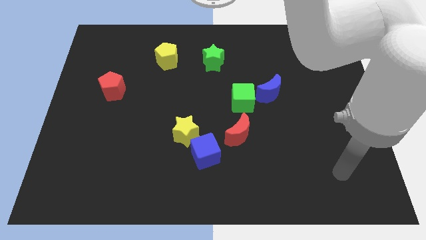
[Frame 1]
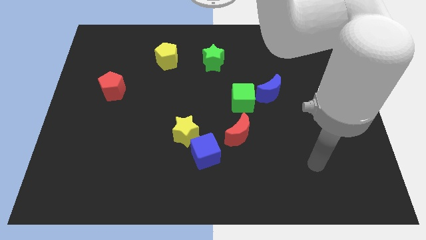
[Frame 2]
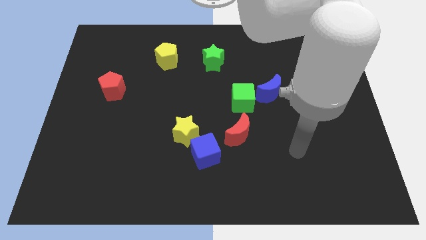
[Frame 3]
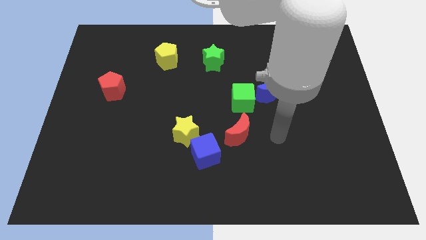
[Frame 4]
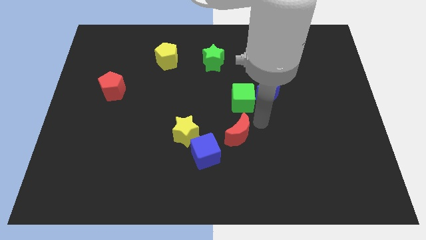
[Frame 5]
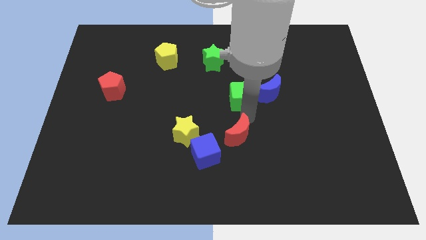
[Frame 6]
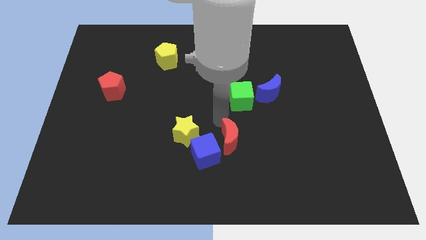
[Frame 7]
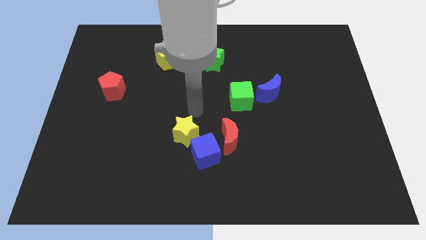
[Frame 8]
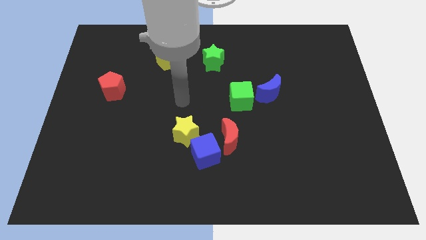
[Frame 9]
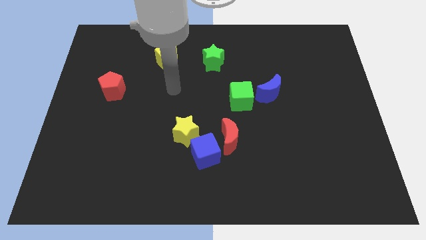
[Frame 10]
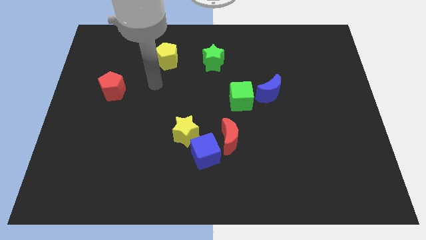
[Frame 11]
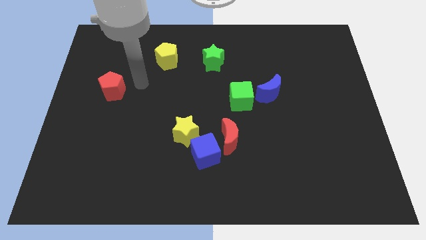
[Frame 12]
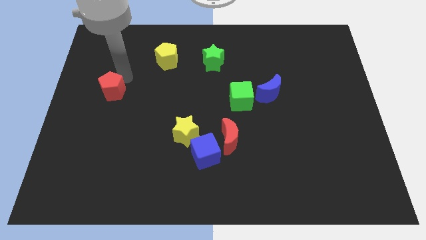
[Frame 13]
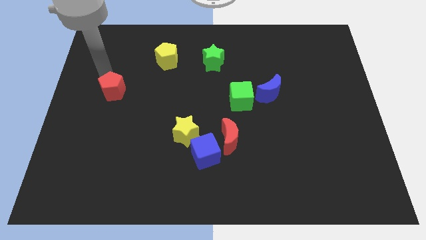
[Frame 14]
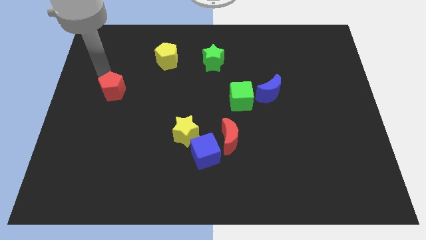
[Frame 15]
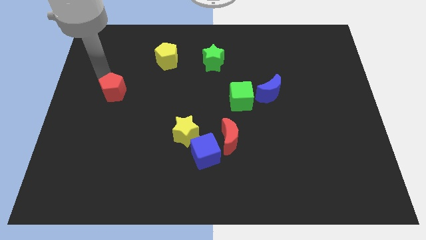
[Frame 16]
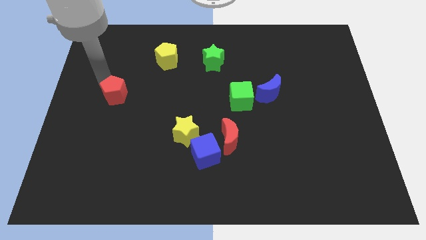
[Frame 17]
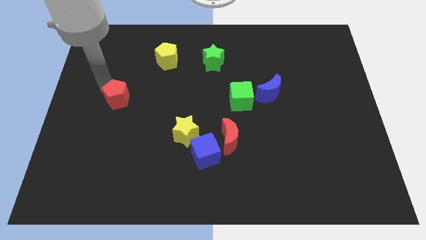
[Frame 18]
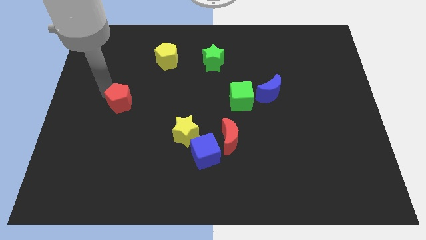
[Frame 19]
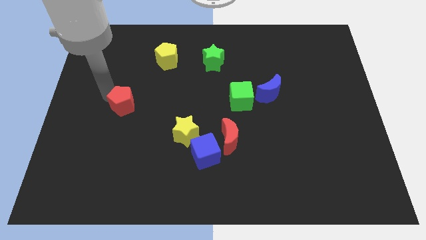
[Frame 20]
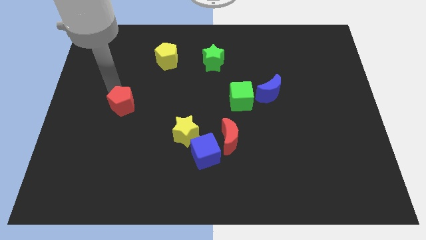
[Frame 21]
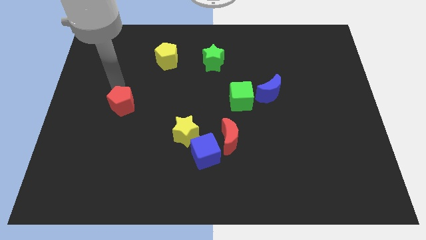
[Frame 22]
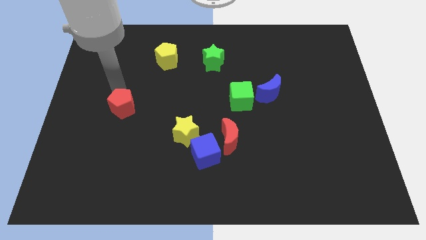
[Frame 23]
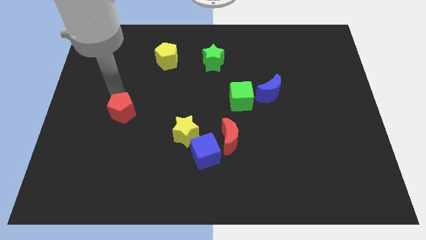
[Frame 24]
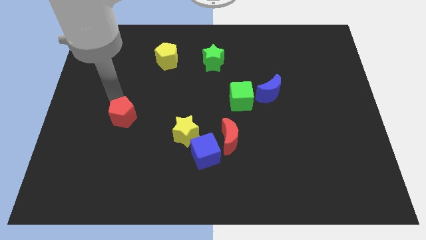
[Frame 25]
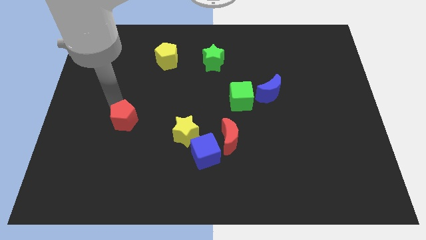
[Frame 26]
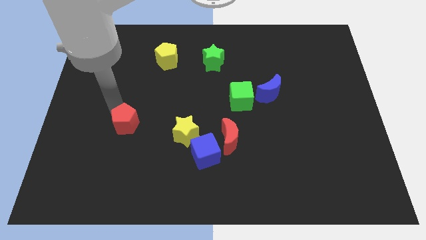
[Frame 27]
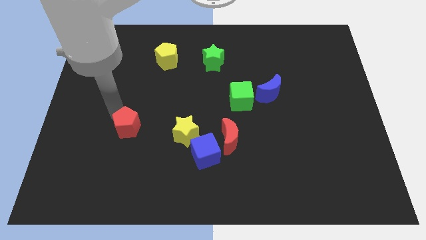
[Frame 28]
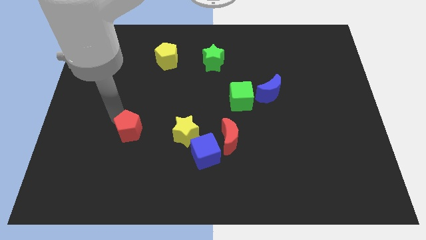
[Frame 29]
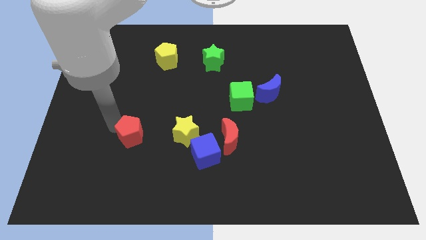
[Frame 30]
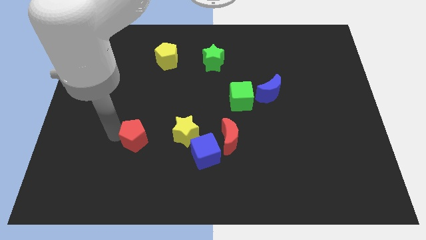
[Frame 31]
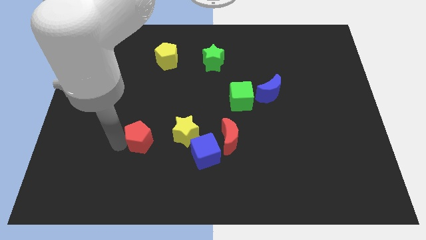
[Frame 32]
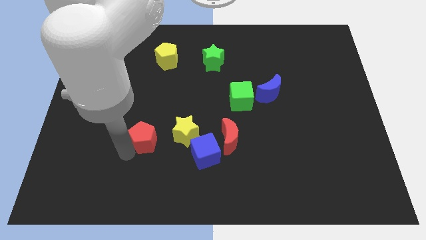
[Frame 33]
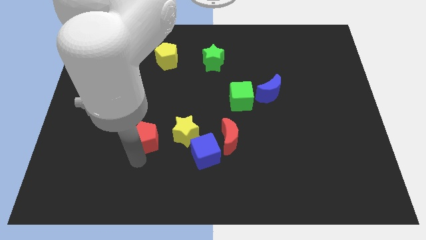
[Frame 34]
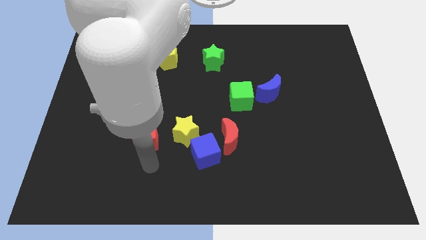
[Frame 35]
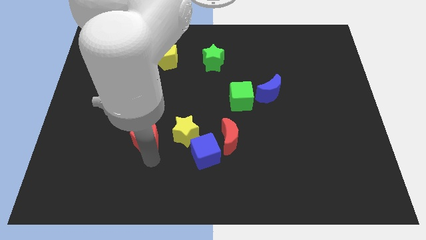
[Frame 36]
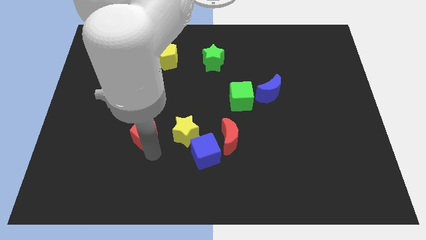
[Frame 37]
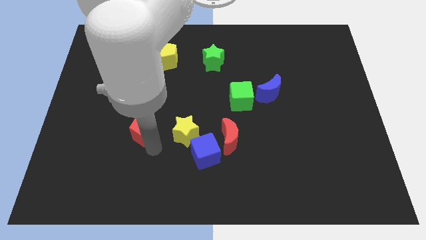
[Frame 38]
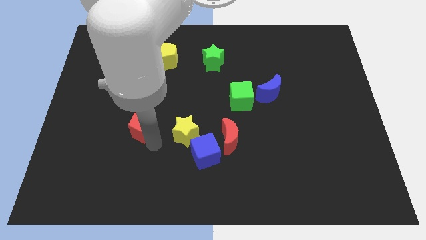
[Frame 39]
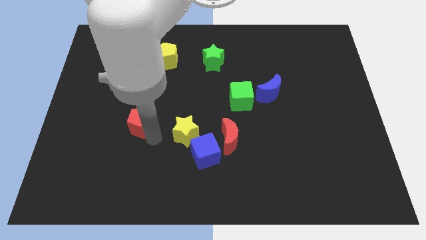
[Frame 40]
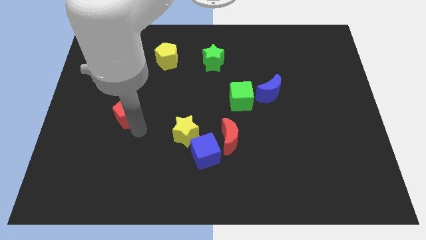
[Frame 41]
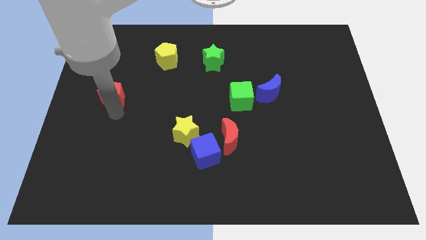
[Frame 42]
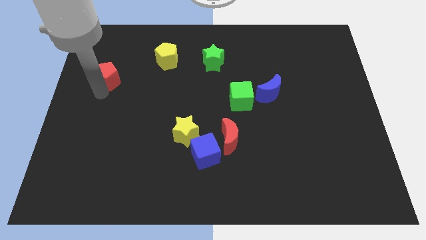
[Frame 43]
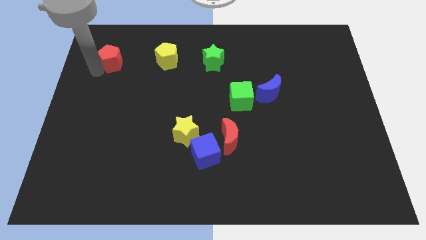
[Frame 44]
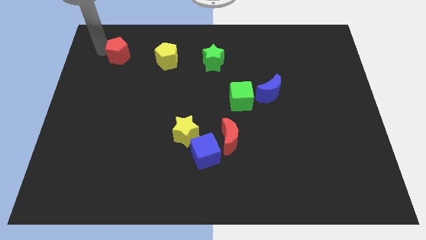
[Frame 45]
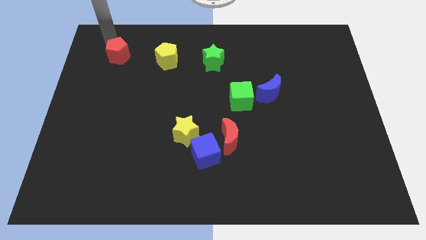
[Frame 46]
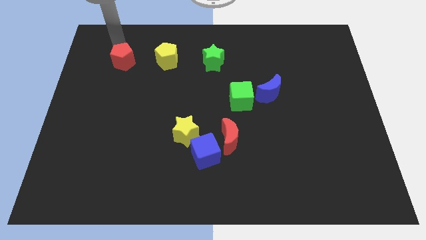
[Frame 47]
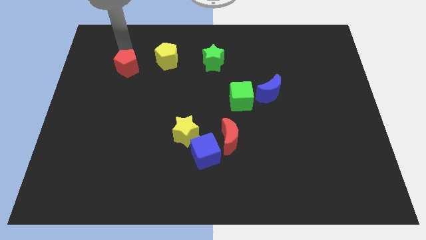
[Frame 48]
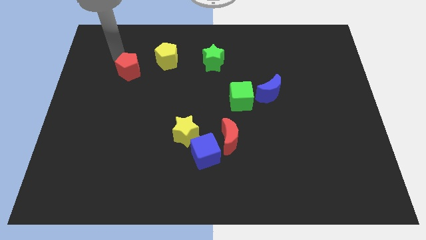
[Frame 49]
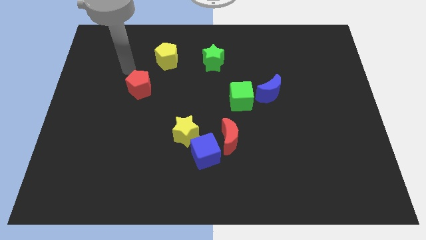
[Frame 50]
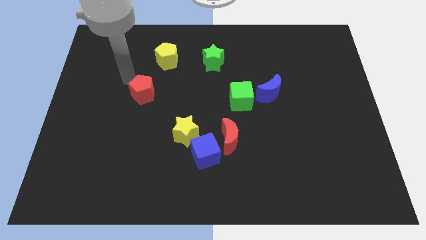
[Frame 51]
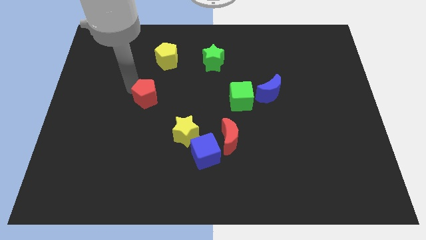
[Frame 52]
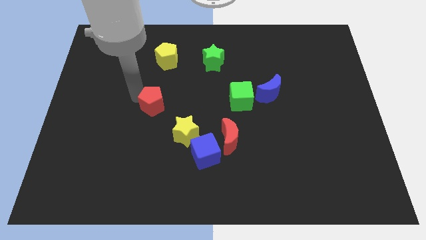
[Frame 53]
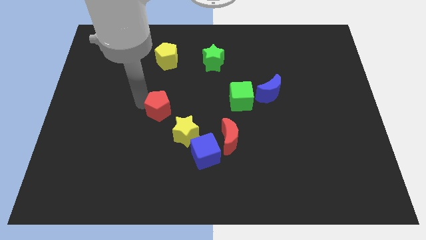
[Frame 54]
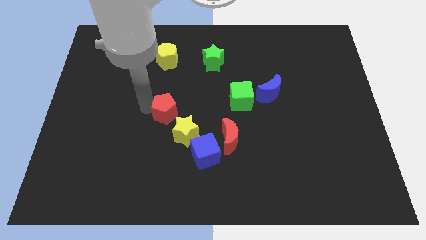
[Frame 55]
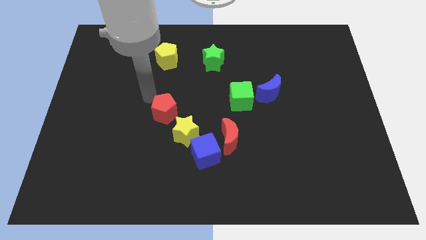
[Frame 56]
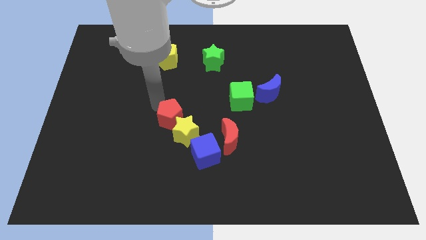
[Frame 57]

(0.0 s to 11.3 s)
slide the red pentagon towards the yellow star

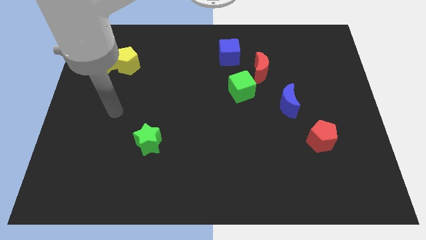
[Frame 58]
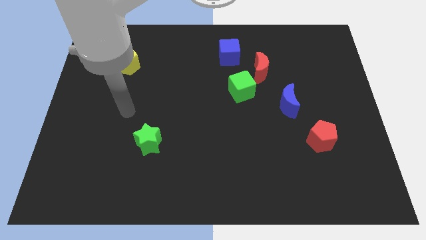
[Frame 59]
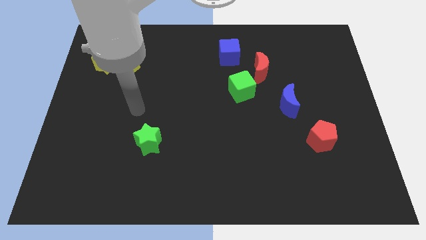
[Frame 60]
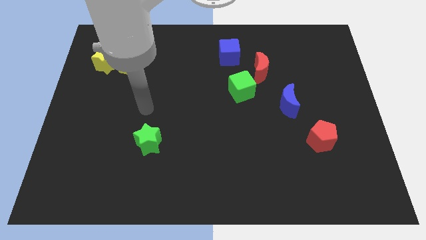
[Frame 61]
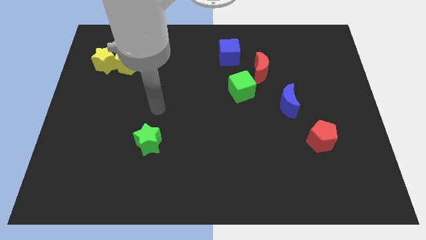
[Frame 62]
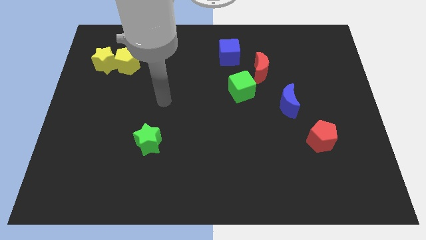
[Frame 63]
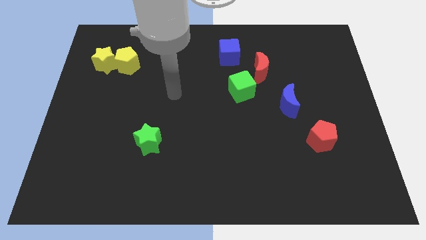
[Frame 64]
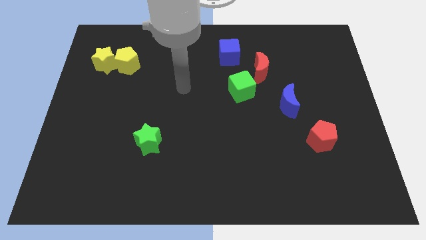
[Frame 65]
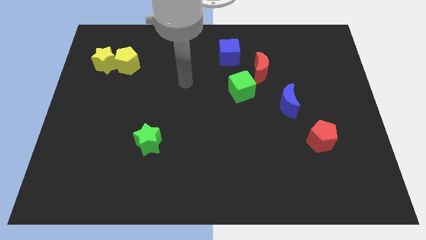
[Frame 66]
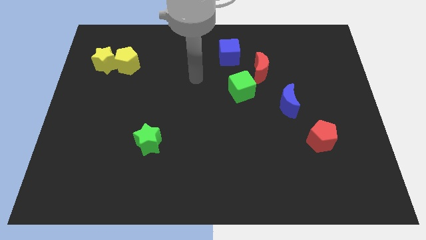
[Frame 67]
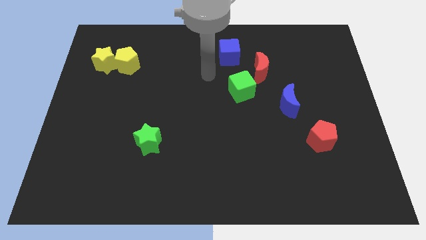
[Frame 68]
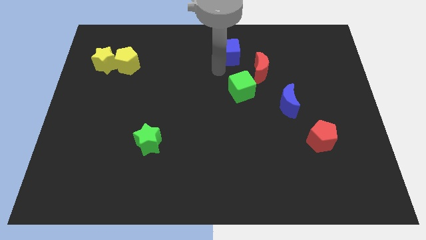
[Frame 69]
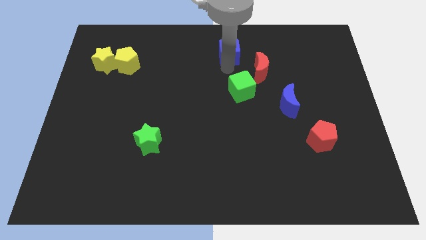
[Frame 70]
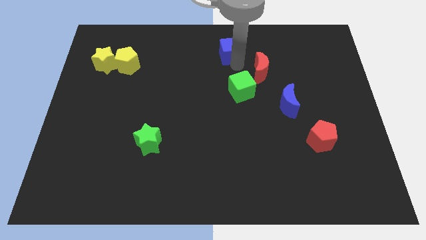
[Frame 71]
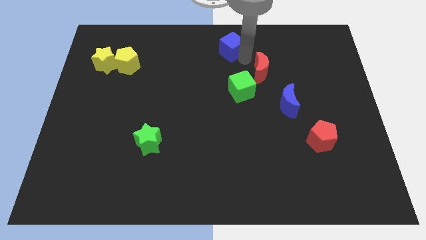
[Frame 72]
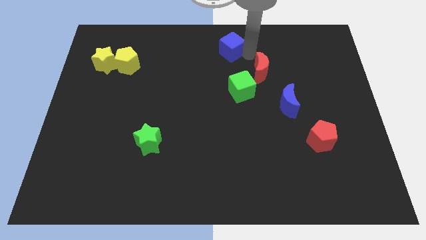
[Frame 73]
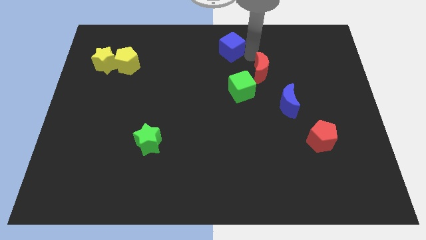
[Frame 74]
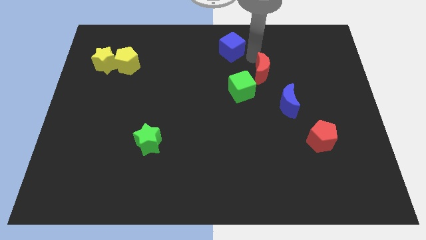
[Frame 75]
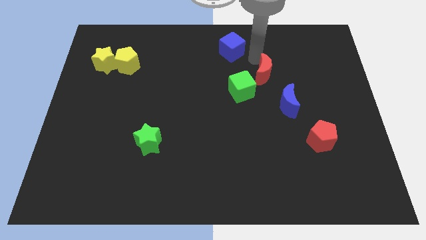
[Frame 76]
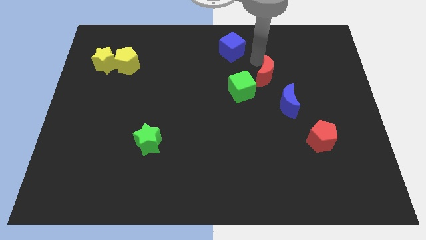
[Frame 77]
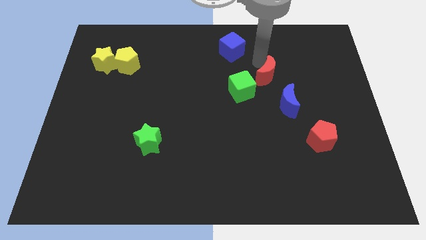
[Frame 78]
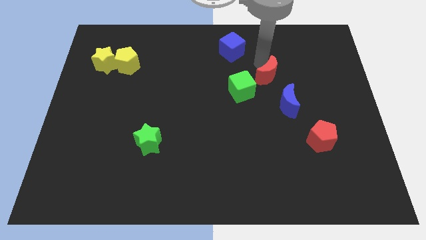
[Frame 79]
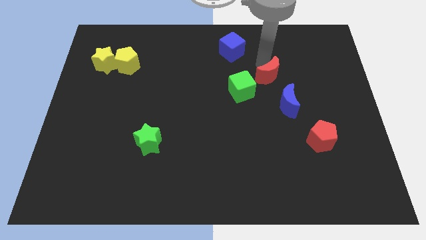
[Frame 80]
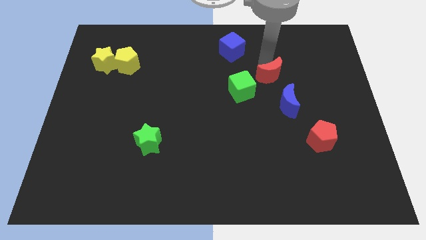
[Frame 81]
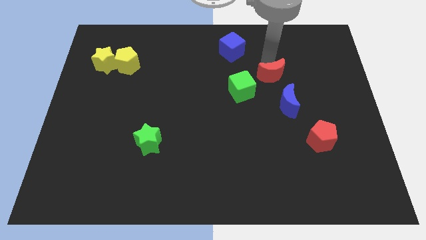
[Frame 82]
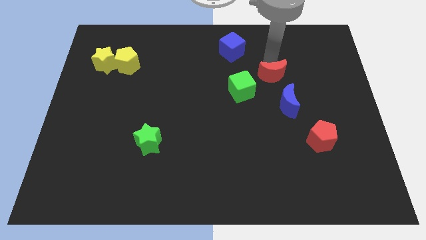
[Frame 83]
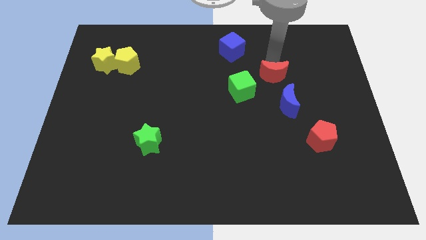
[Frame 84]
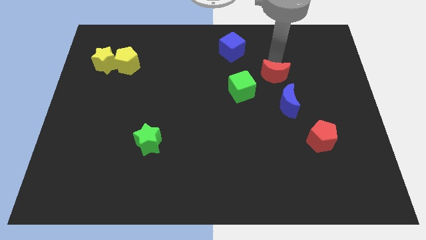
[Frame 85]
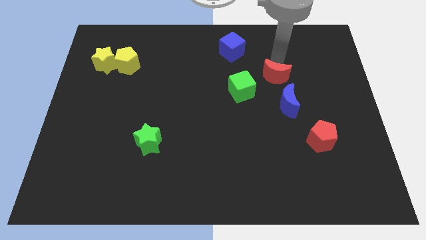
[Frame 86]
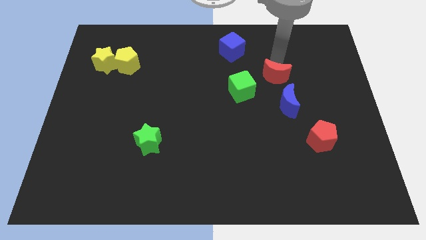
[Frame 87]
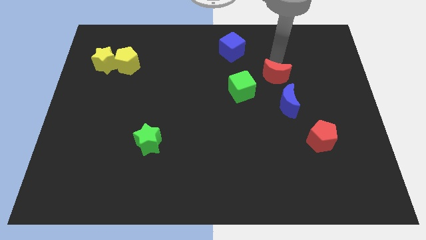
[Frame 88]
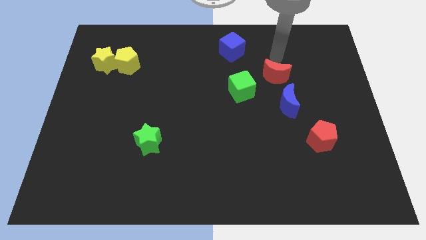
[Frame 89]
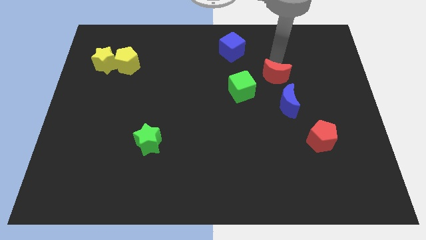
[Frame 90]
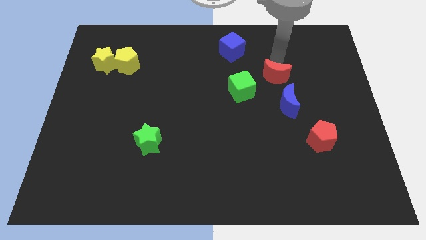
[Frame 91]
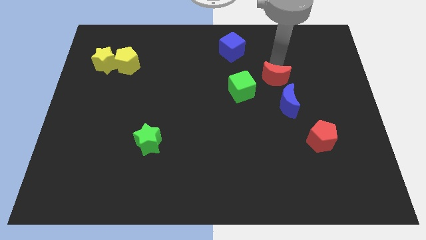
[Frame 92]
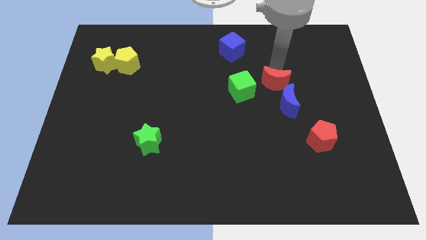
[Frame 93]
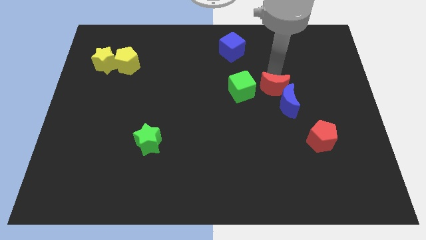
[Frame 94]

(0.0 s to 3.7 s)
put the red moon next to the blue moon
